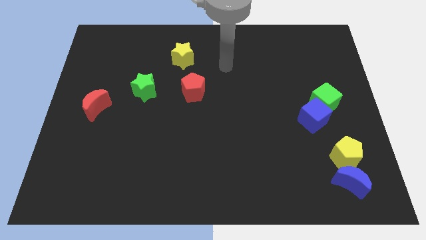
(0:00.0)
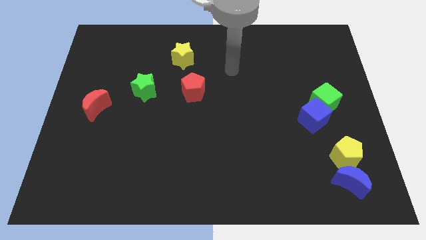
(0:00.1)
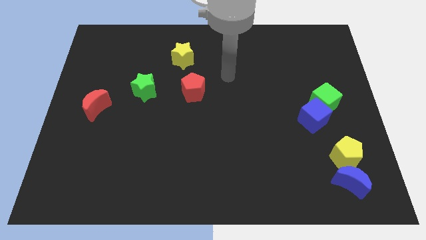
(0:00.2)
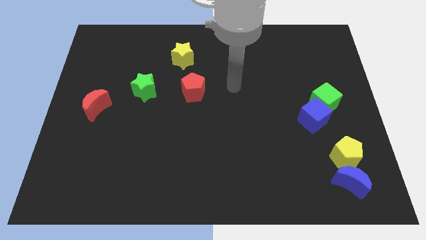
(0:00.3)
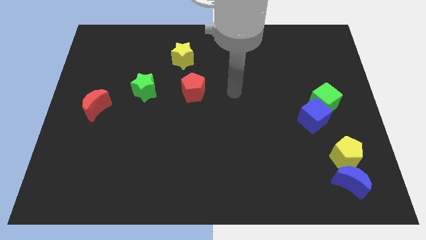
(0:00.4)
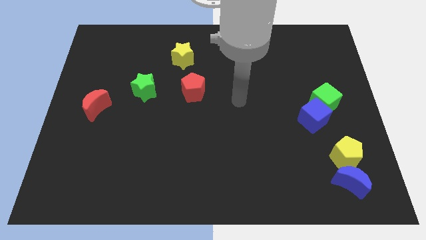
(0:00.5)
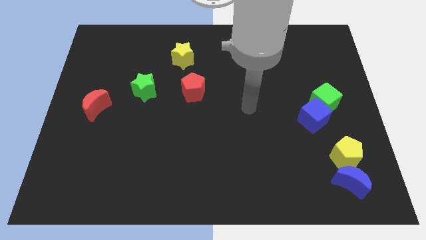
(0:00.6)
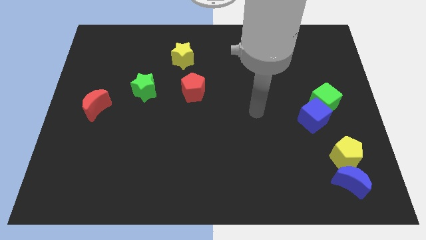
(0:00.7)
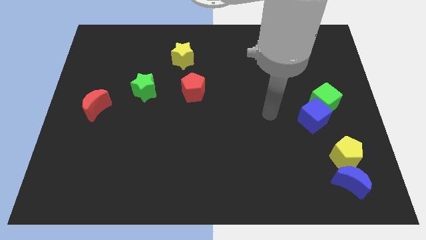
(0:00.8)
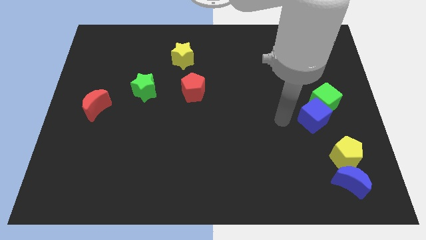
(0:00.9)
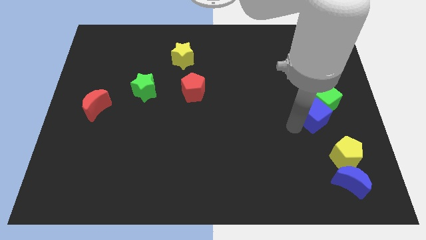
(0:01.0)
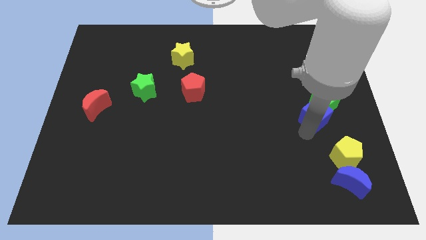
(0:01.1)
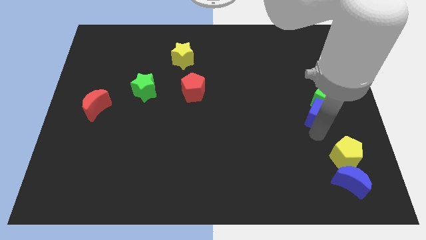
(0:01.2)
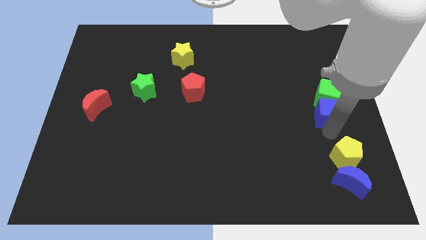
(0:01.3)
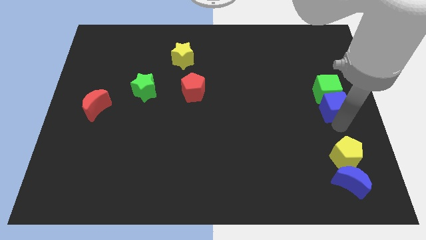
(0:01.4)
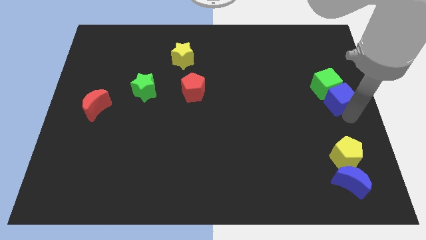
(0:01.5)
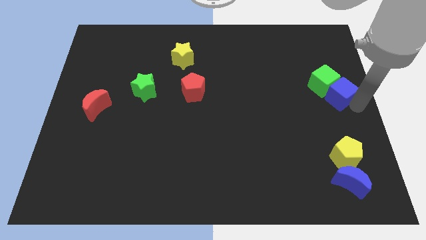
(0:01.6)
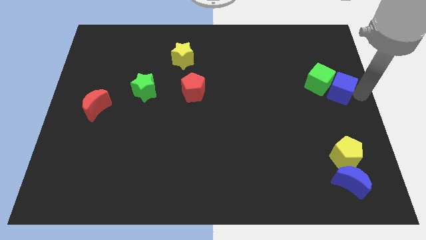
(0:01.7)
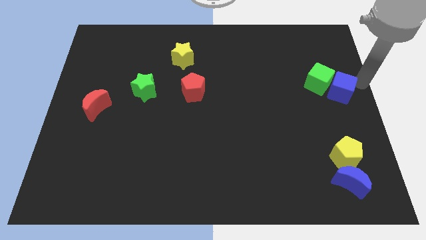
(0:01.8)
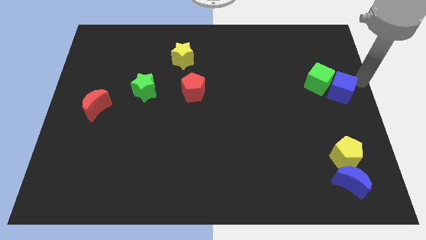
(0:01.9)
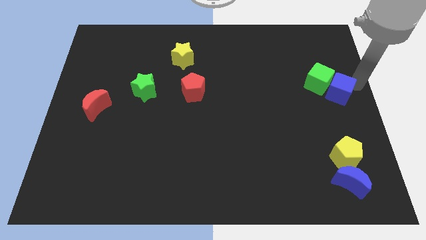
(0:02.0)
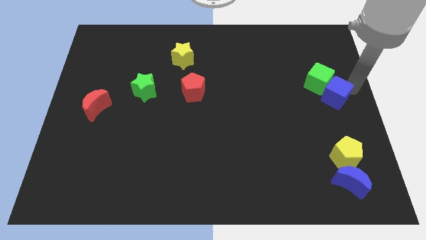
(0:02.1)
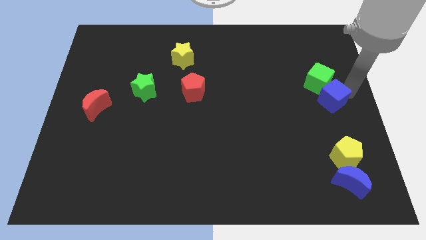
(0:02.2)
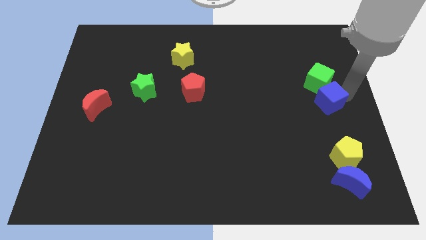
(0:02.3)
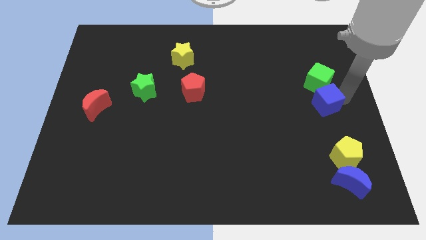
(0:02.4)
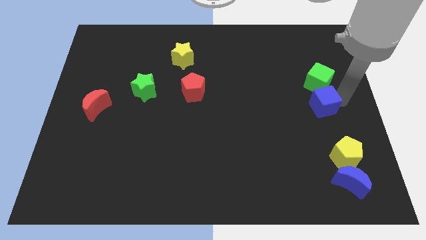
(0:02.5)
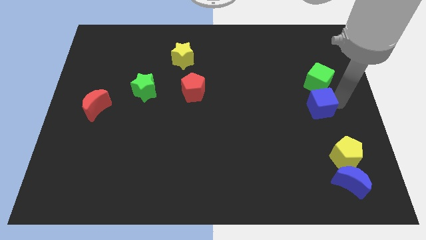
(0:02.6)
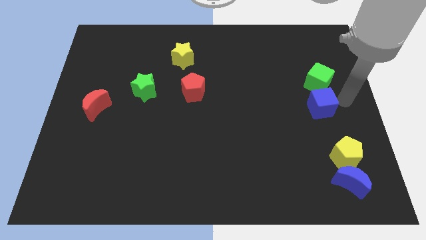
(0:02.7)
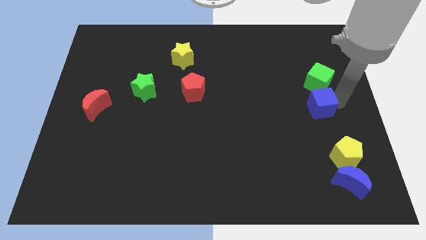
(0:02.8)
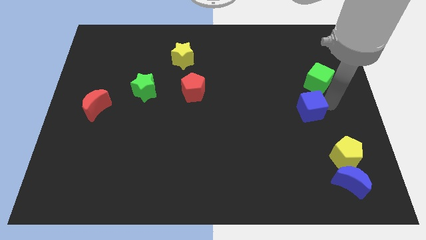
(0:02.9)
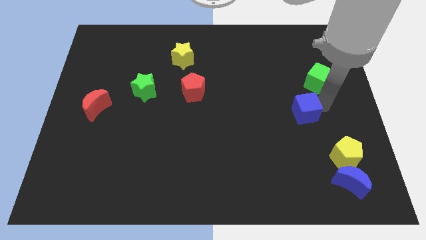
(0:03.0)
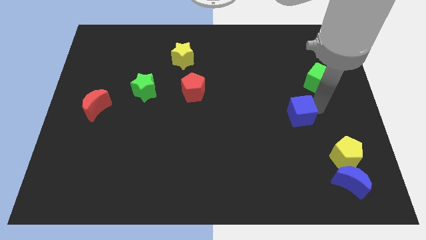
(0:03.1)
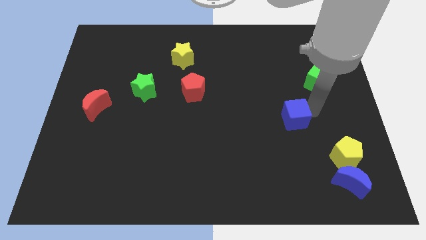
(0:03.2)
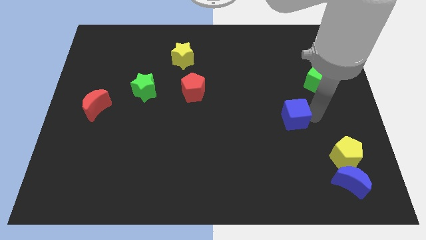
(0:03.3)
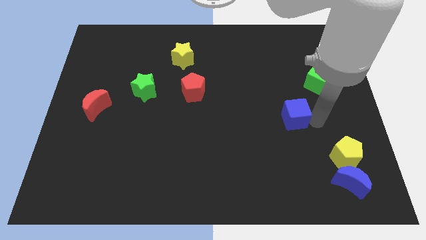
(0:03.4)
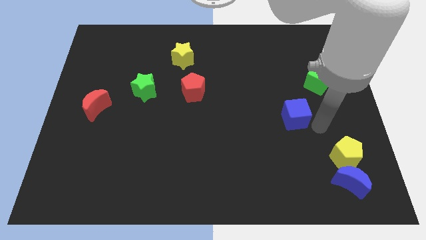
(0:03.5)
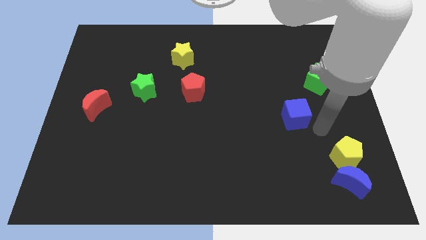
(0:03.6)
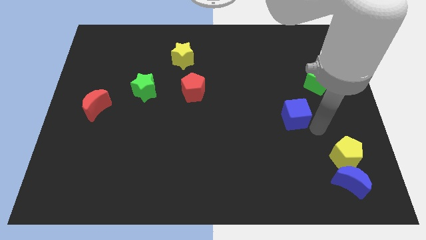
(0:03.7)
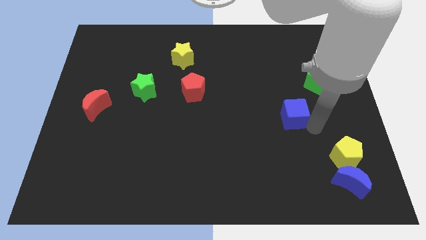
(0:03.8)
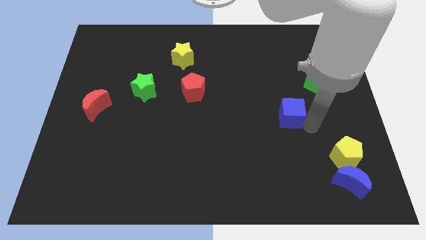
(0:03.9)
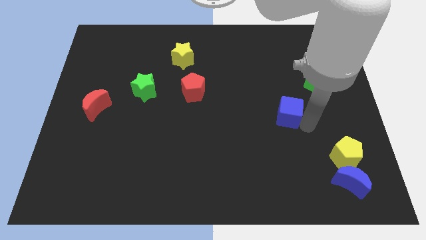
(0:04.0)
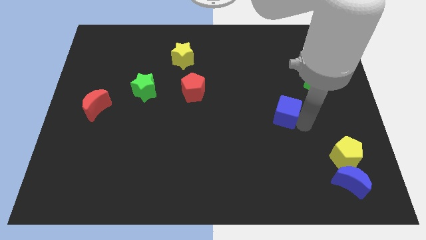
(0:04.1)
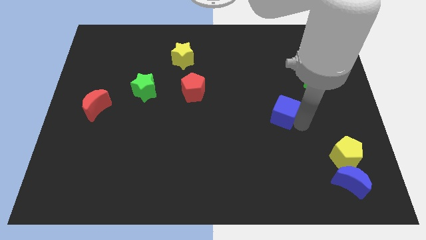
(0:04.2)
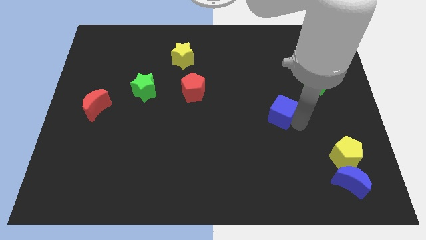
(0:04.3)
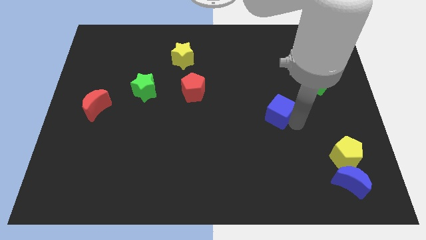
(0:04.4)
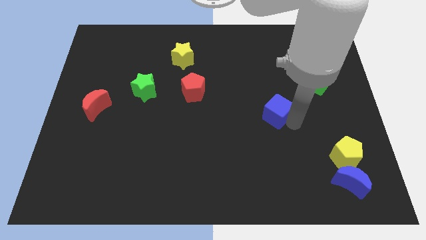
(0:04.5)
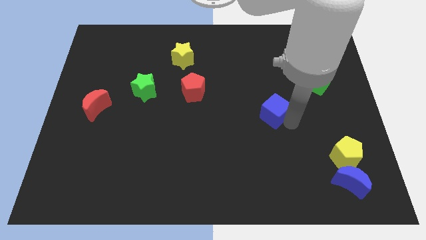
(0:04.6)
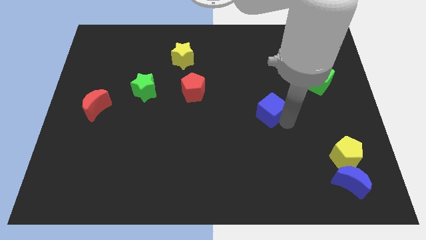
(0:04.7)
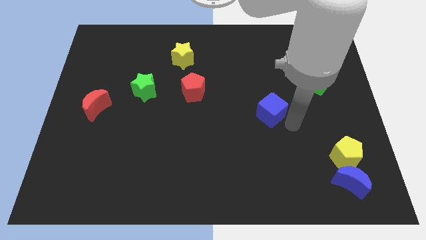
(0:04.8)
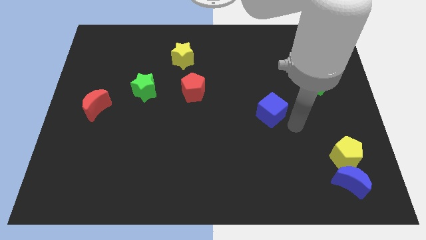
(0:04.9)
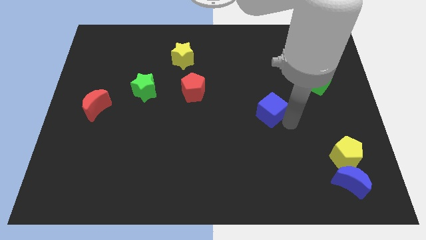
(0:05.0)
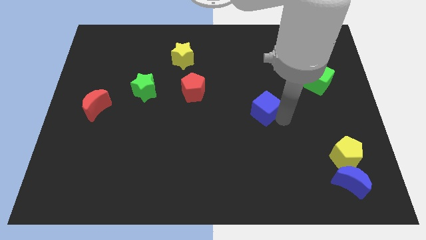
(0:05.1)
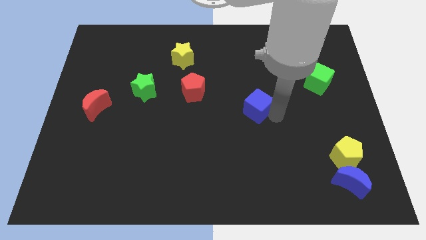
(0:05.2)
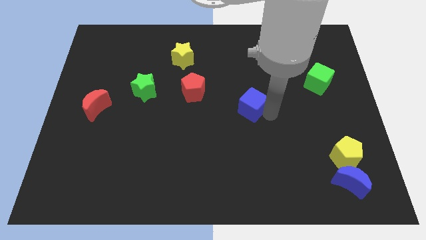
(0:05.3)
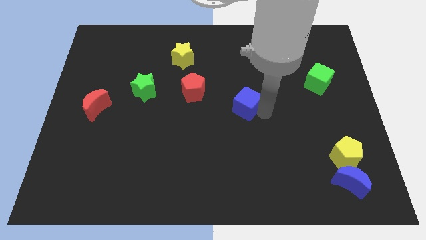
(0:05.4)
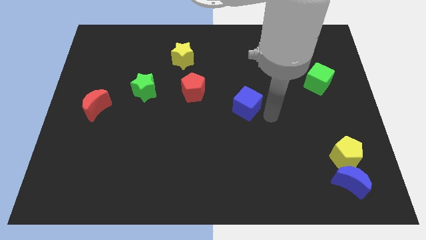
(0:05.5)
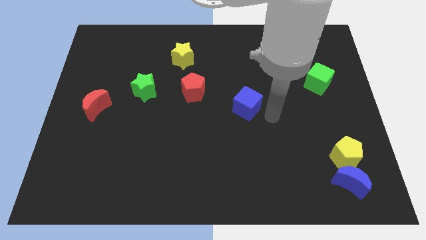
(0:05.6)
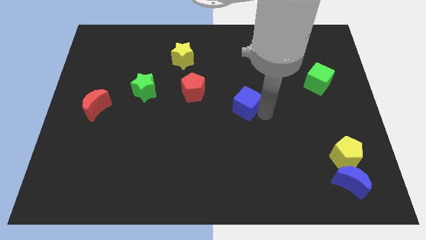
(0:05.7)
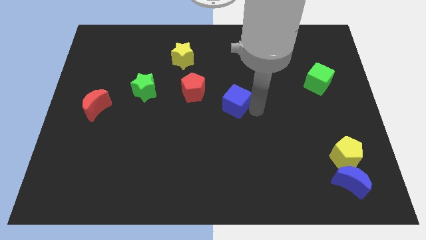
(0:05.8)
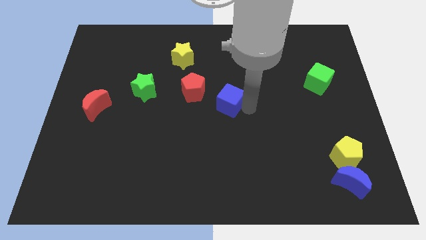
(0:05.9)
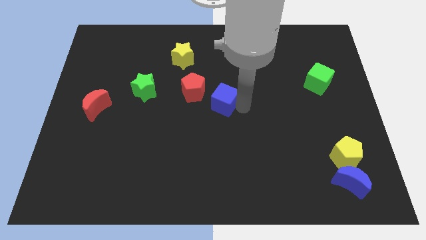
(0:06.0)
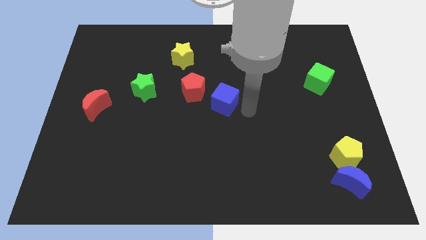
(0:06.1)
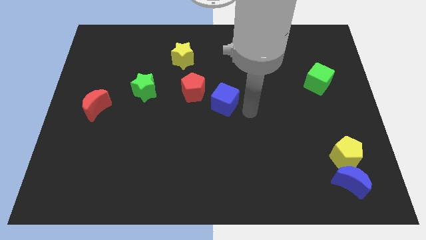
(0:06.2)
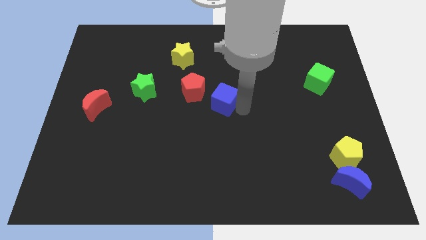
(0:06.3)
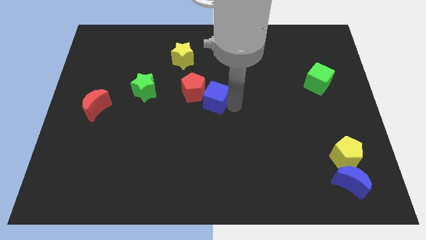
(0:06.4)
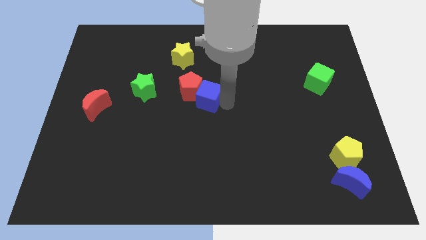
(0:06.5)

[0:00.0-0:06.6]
put the blue cube next to the red pentagon
